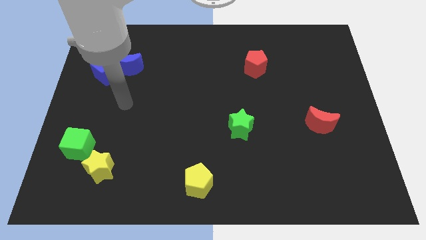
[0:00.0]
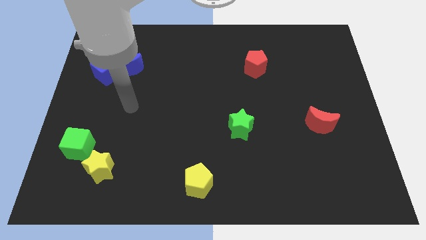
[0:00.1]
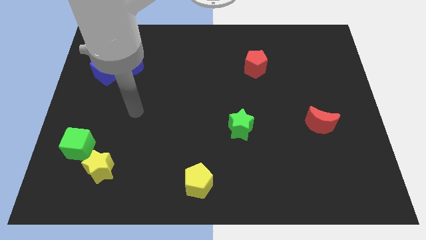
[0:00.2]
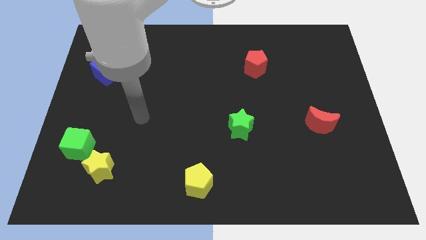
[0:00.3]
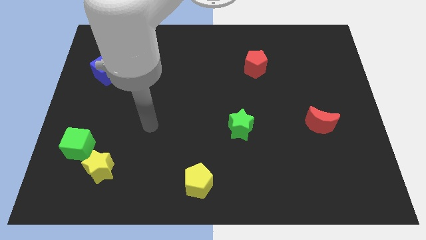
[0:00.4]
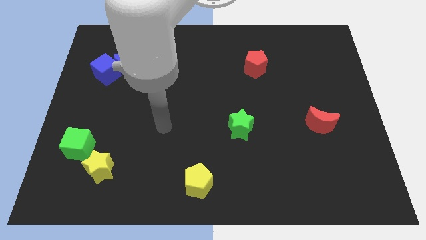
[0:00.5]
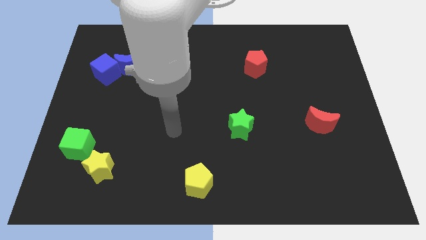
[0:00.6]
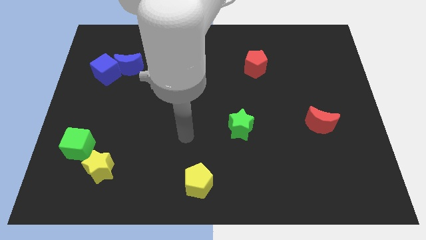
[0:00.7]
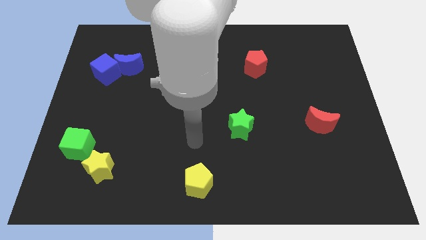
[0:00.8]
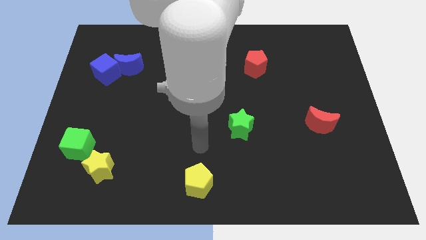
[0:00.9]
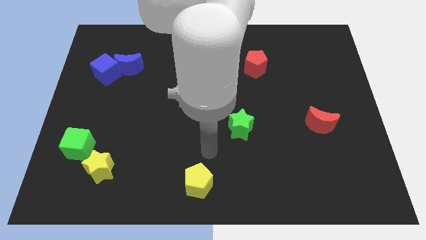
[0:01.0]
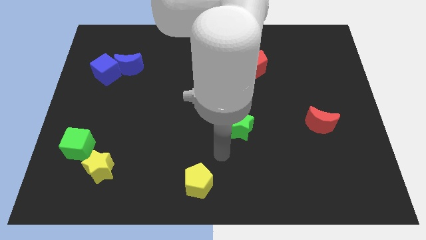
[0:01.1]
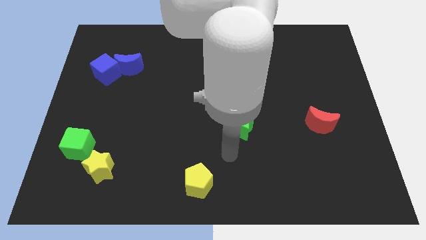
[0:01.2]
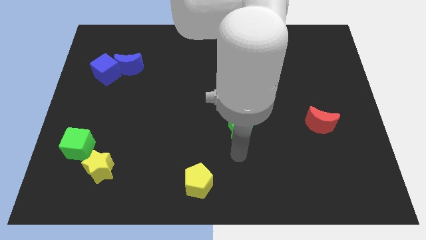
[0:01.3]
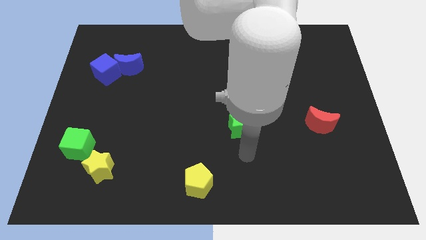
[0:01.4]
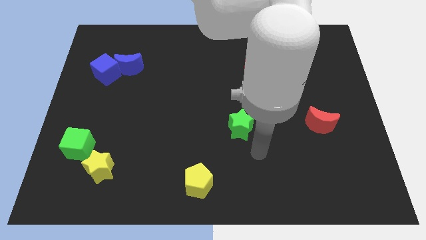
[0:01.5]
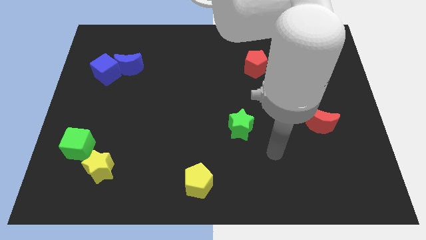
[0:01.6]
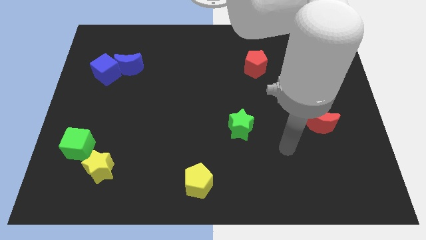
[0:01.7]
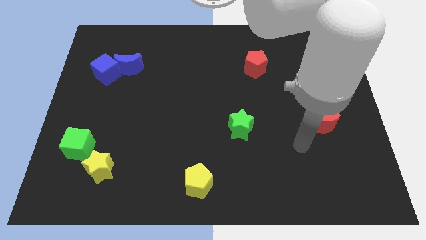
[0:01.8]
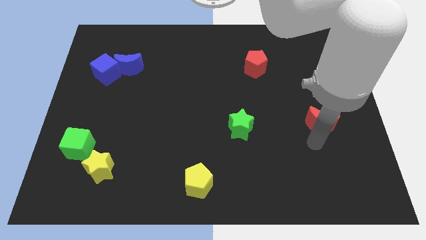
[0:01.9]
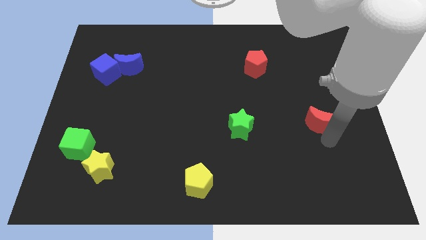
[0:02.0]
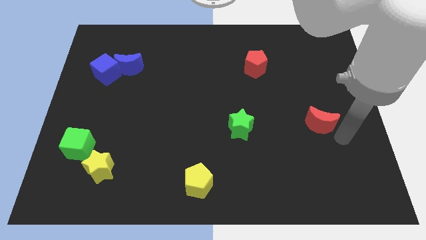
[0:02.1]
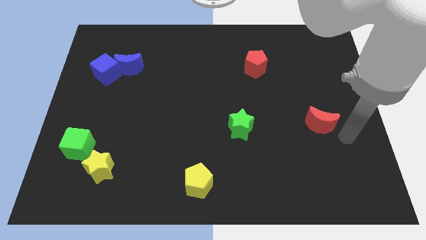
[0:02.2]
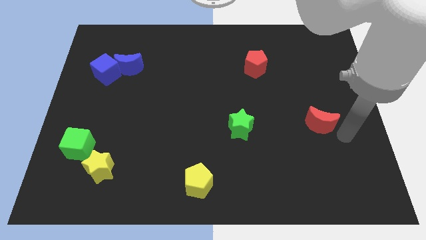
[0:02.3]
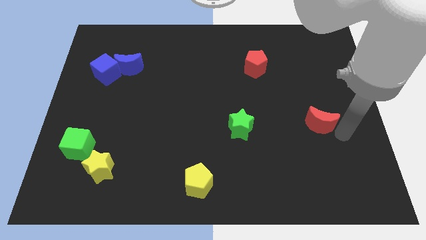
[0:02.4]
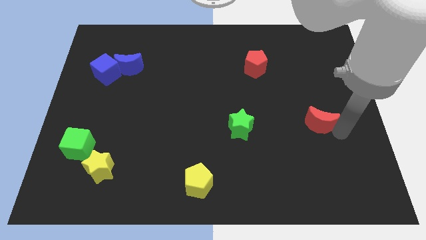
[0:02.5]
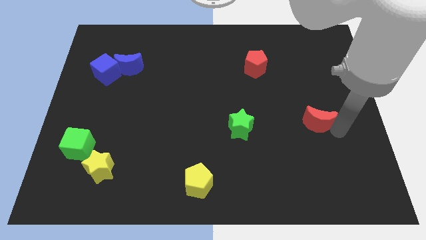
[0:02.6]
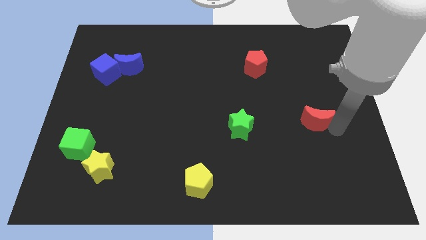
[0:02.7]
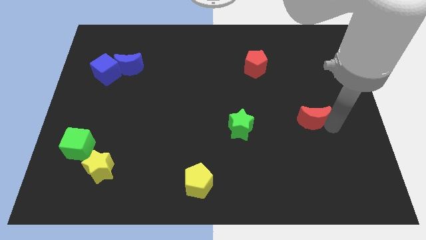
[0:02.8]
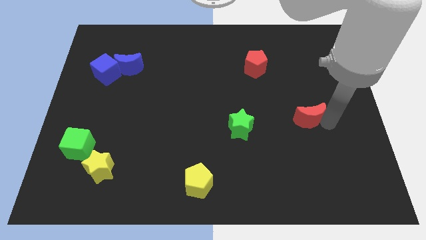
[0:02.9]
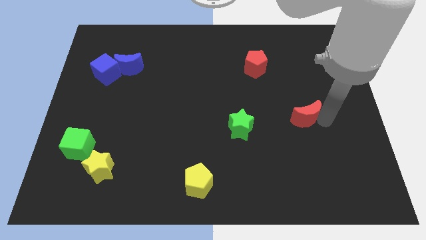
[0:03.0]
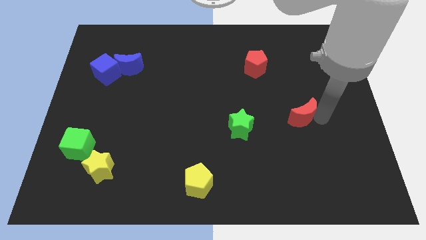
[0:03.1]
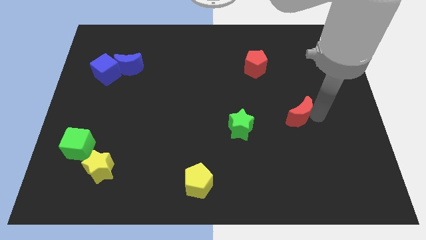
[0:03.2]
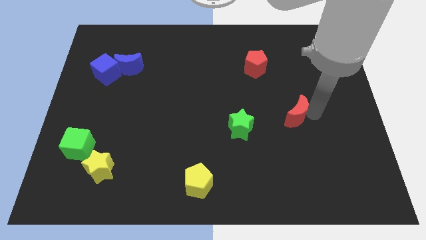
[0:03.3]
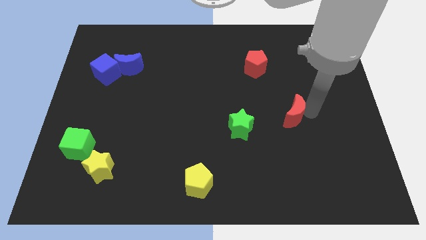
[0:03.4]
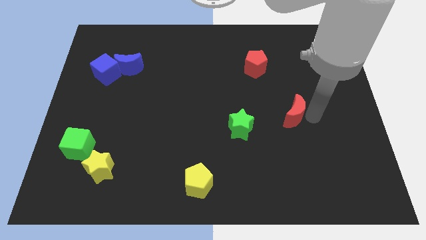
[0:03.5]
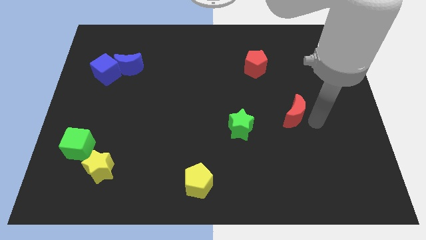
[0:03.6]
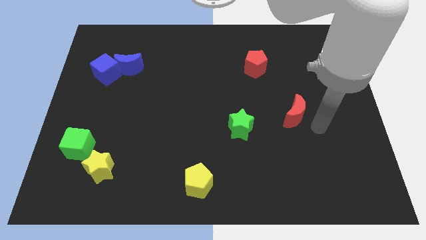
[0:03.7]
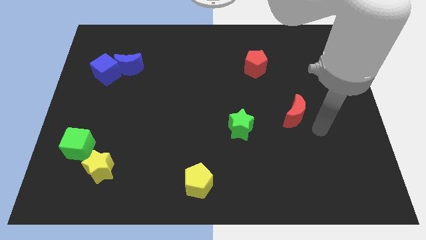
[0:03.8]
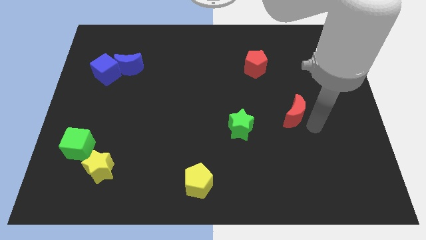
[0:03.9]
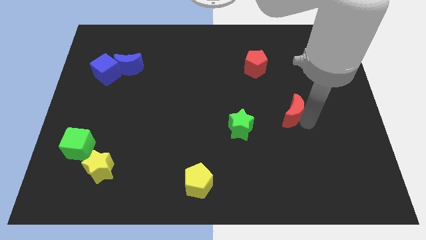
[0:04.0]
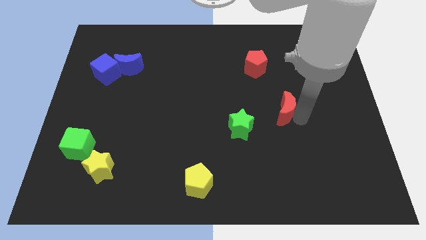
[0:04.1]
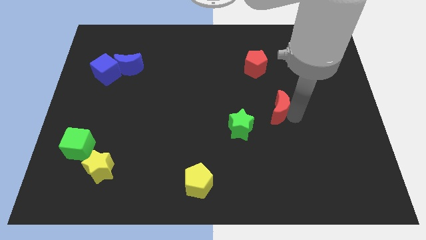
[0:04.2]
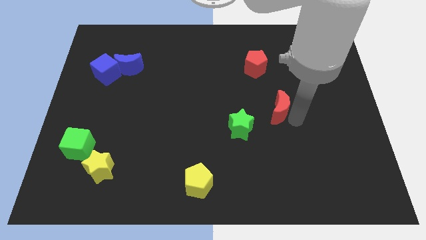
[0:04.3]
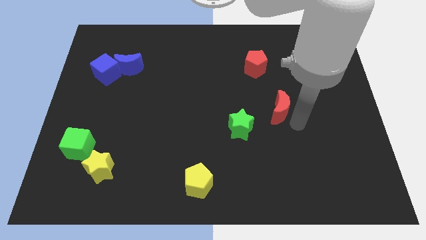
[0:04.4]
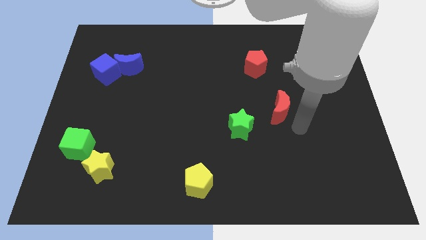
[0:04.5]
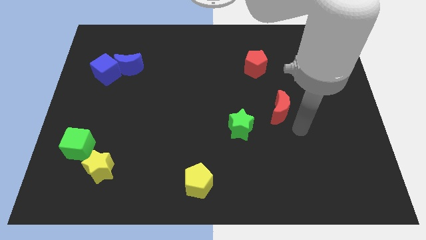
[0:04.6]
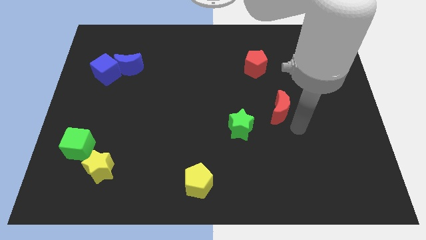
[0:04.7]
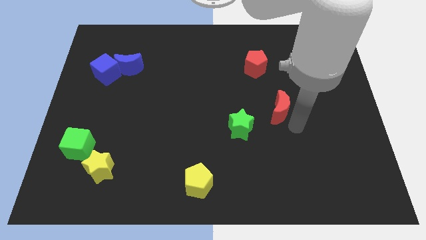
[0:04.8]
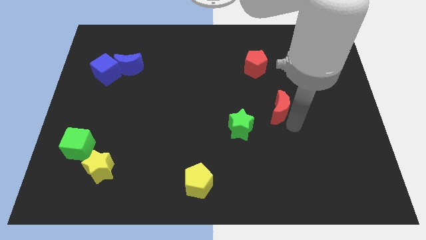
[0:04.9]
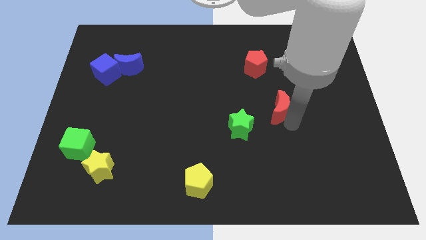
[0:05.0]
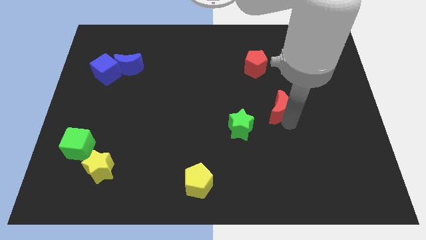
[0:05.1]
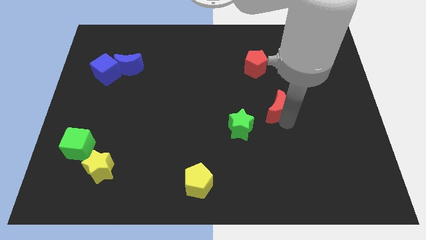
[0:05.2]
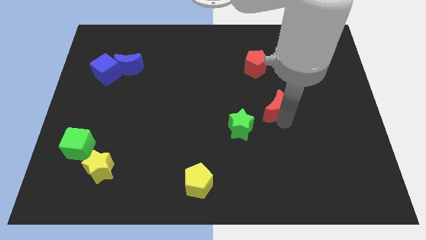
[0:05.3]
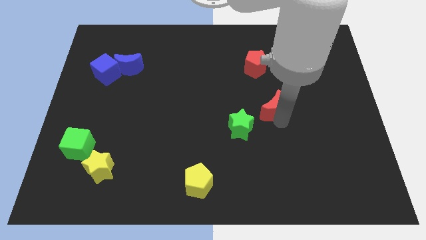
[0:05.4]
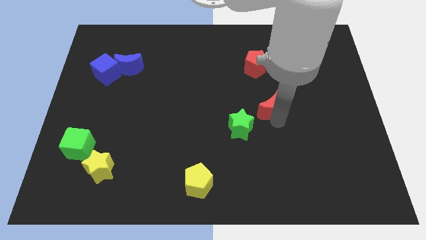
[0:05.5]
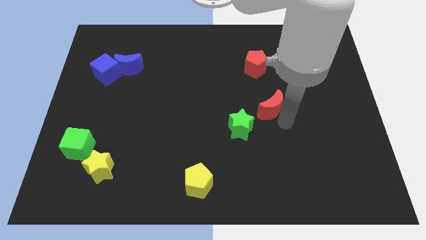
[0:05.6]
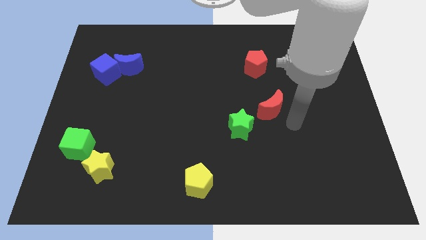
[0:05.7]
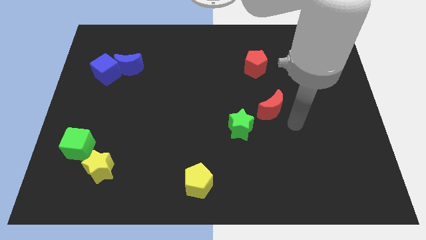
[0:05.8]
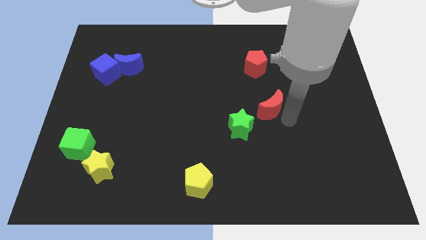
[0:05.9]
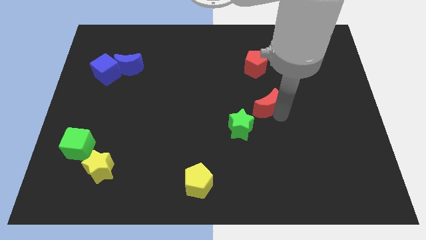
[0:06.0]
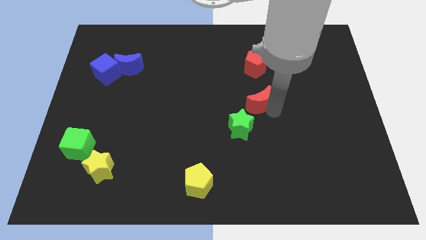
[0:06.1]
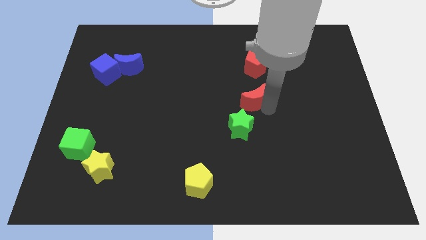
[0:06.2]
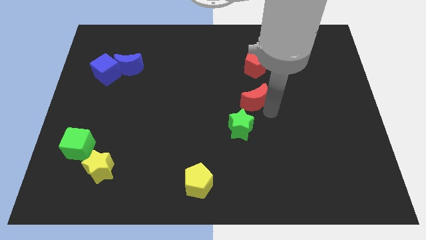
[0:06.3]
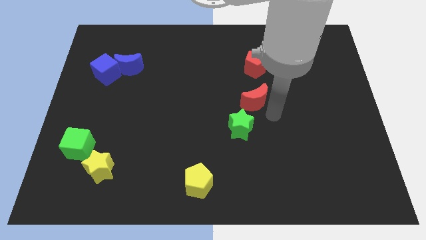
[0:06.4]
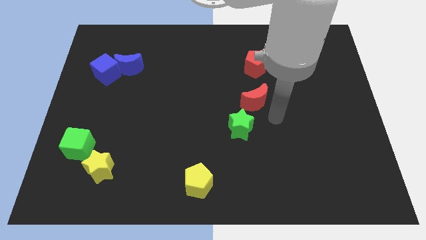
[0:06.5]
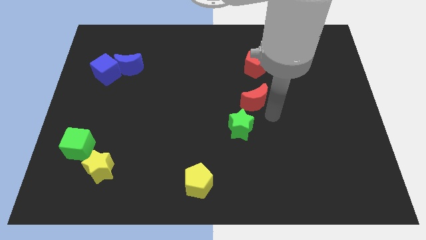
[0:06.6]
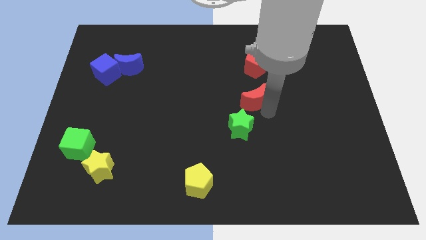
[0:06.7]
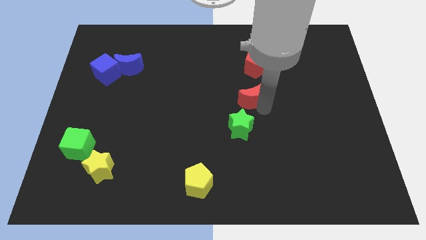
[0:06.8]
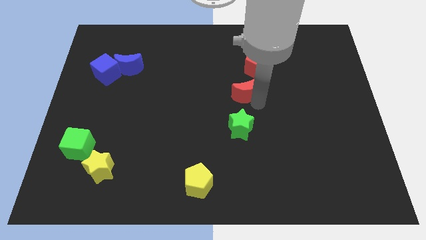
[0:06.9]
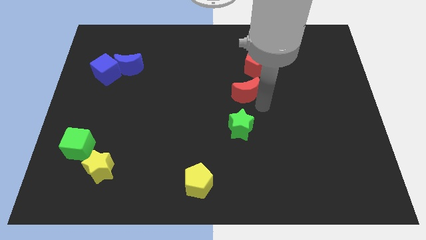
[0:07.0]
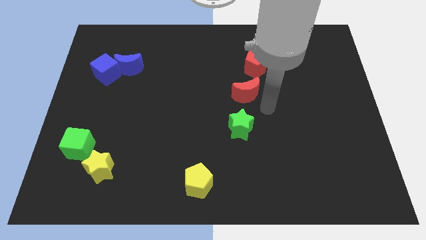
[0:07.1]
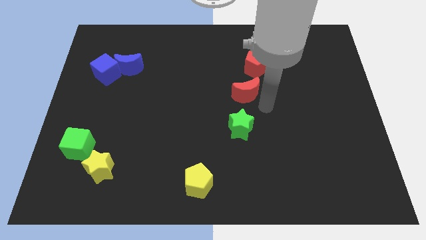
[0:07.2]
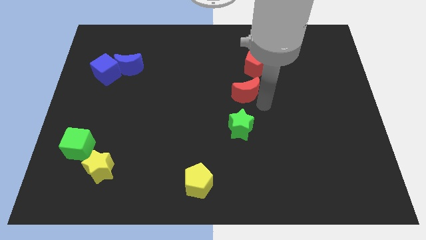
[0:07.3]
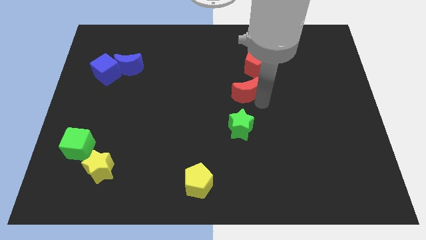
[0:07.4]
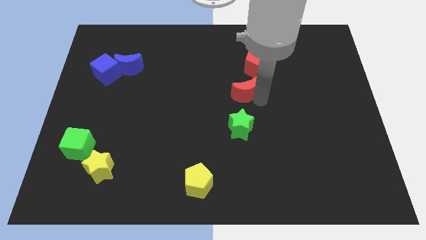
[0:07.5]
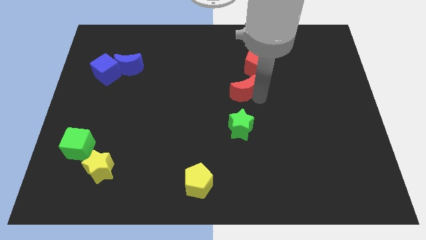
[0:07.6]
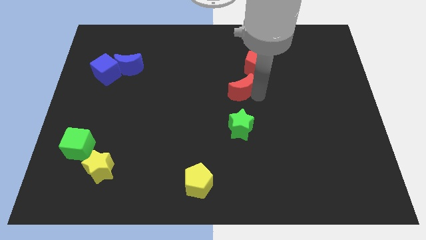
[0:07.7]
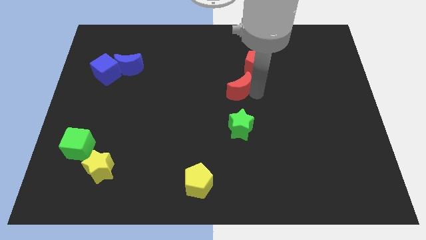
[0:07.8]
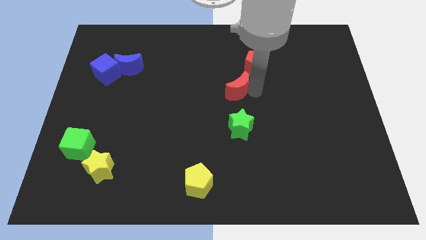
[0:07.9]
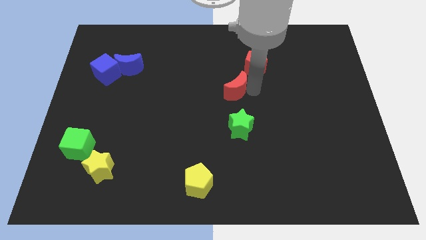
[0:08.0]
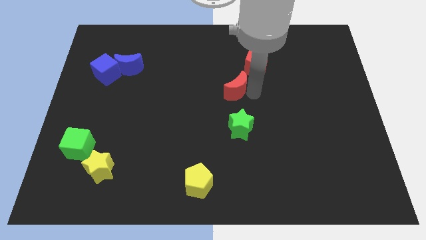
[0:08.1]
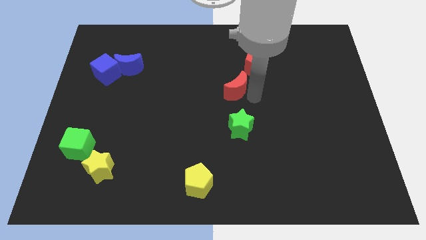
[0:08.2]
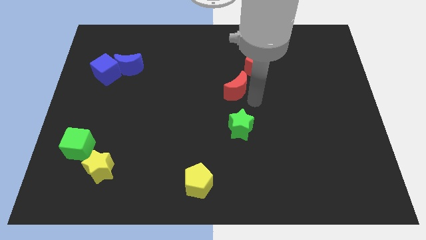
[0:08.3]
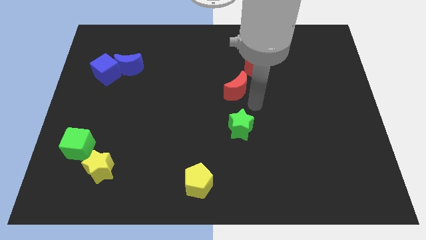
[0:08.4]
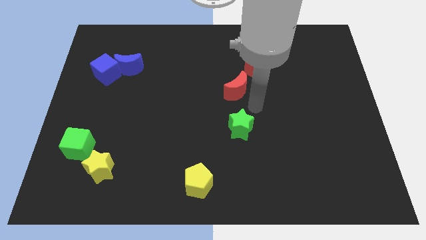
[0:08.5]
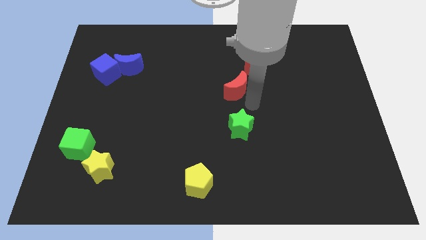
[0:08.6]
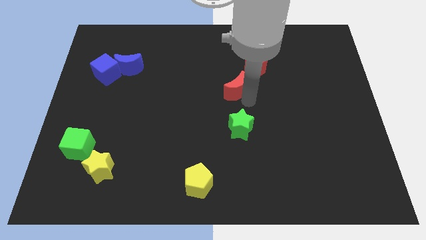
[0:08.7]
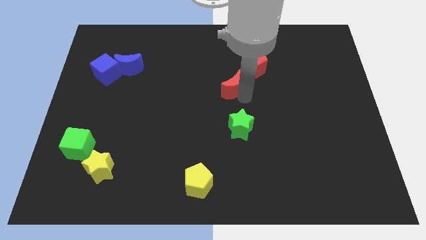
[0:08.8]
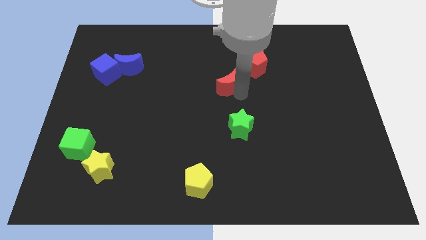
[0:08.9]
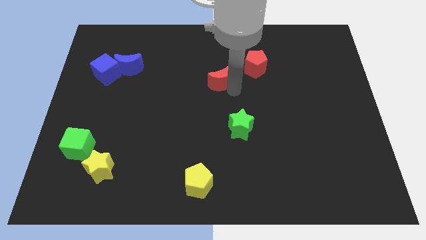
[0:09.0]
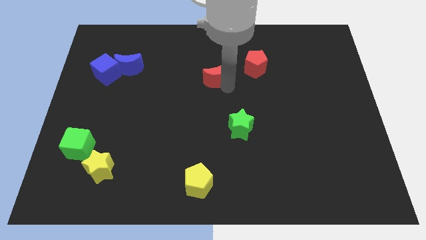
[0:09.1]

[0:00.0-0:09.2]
put the red moon just left of the red pentagon
